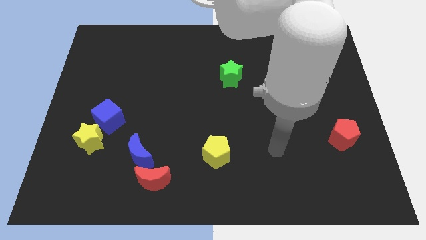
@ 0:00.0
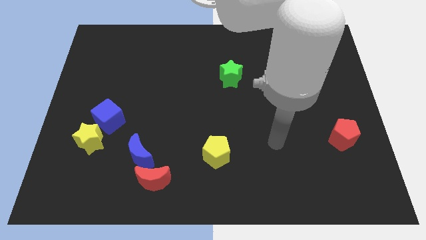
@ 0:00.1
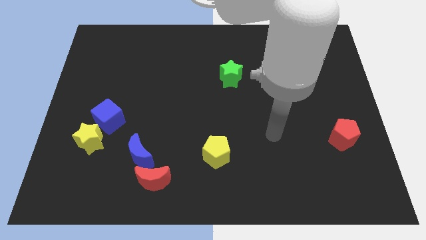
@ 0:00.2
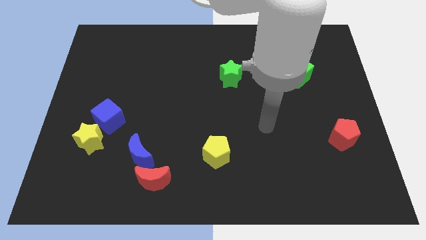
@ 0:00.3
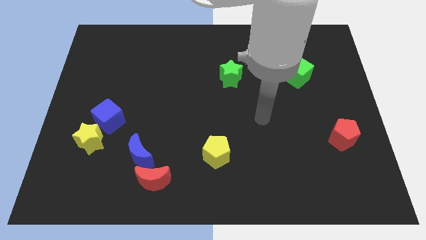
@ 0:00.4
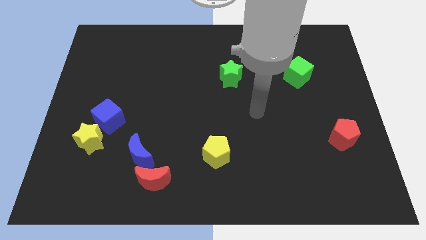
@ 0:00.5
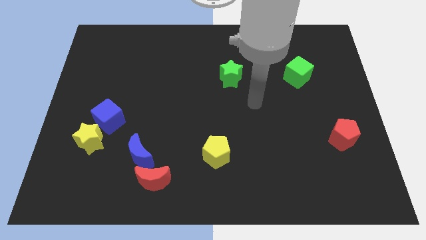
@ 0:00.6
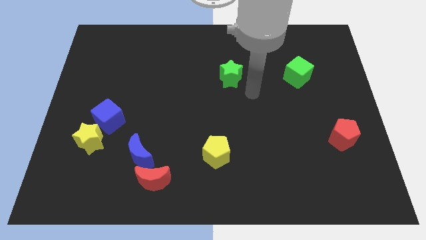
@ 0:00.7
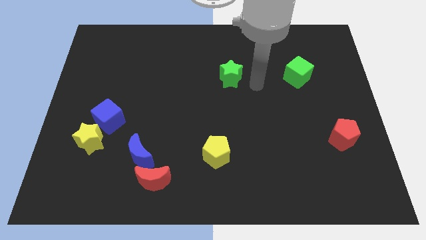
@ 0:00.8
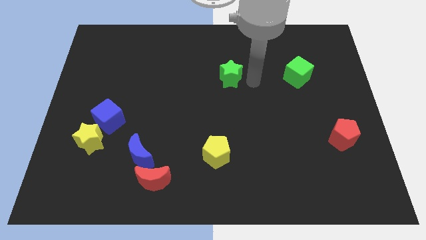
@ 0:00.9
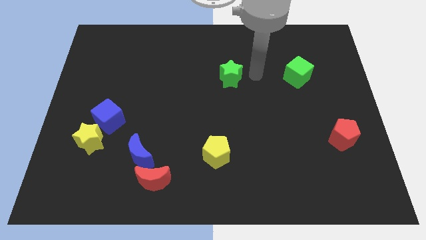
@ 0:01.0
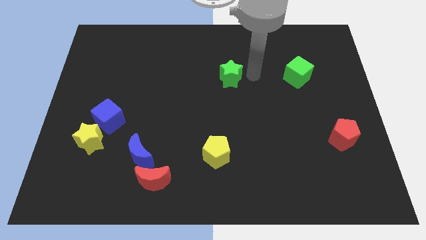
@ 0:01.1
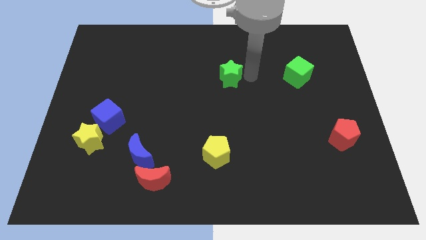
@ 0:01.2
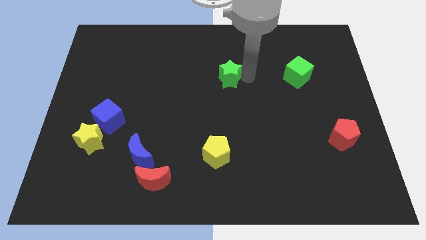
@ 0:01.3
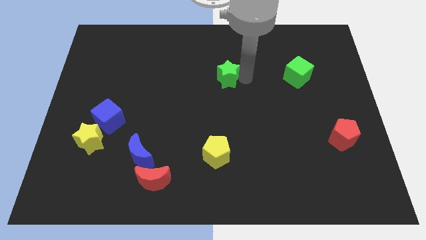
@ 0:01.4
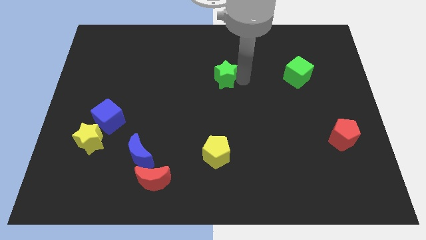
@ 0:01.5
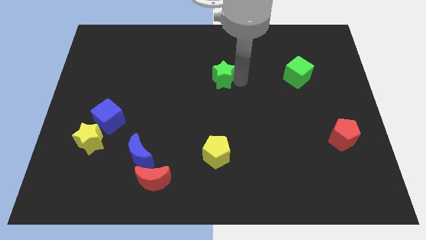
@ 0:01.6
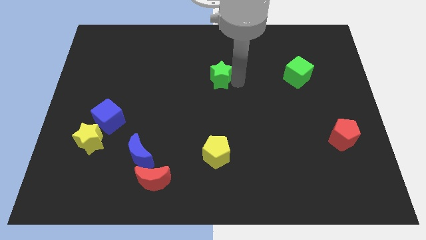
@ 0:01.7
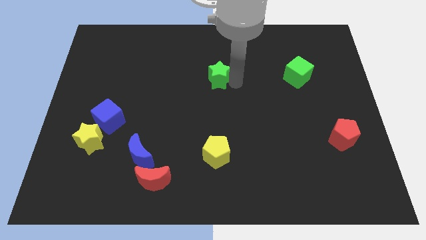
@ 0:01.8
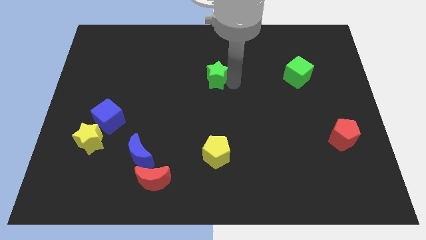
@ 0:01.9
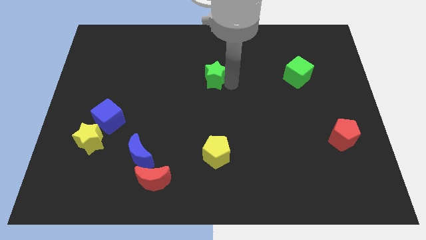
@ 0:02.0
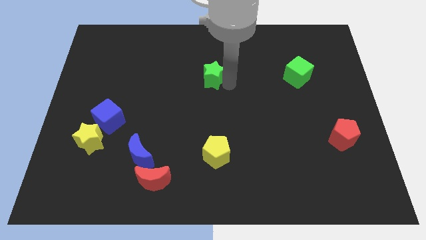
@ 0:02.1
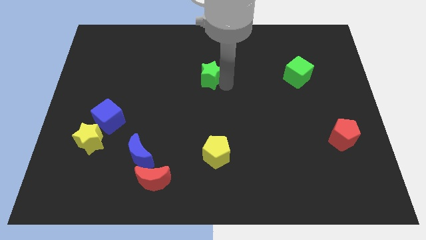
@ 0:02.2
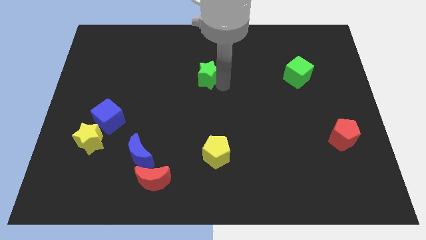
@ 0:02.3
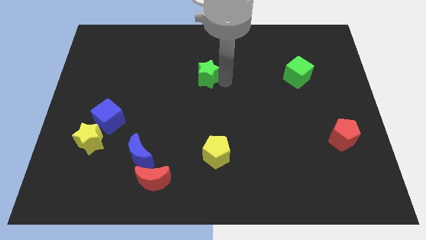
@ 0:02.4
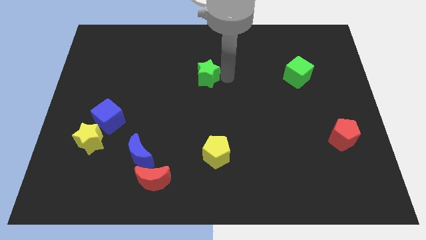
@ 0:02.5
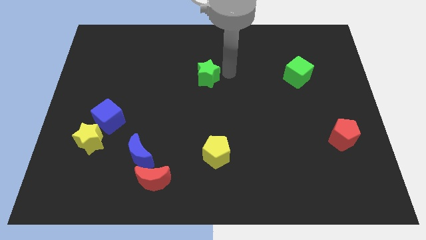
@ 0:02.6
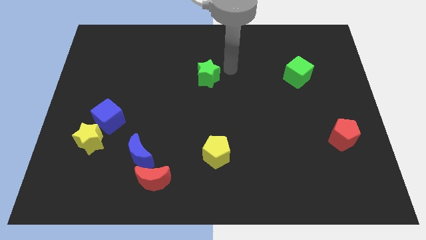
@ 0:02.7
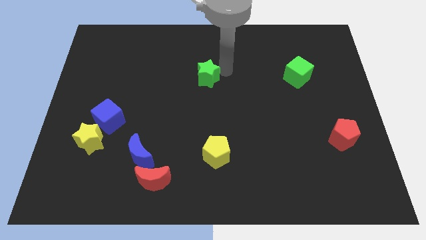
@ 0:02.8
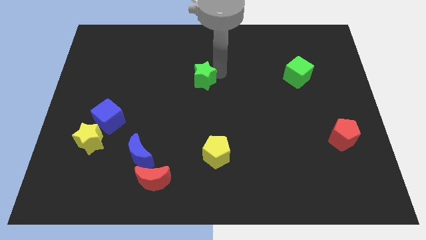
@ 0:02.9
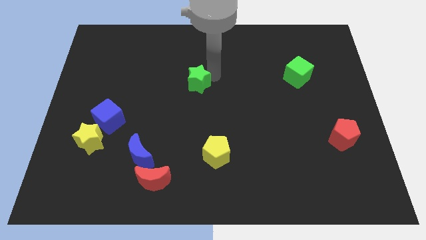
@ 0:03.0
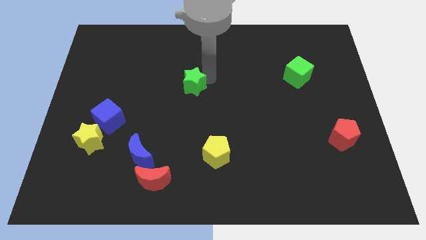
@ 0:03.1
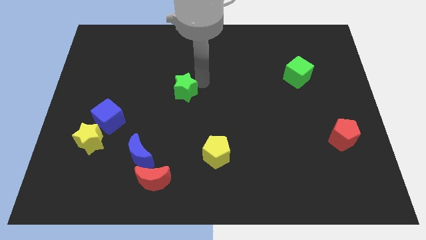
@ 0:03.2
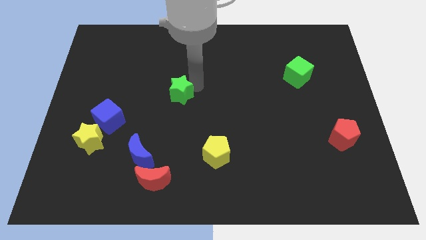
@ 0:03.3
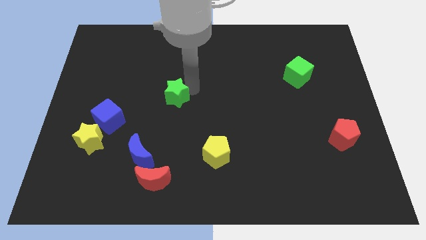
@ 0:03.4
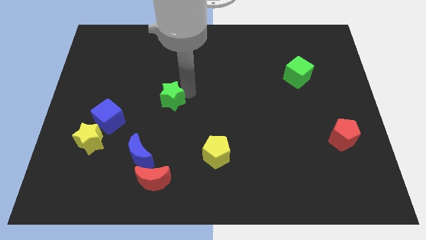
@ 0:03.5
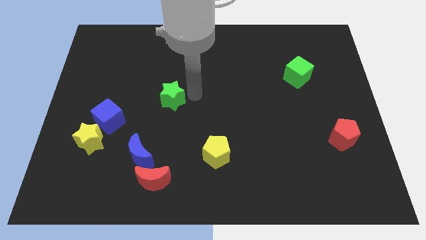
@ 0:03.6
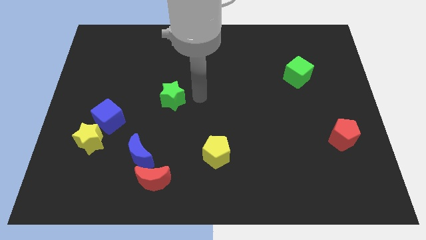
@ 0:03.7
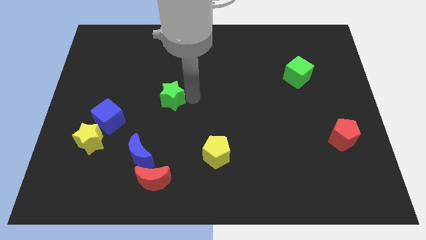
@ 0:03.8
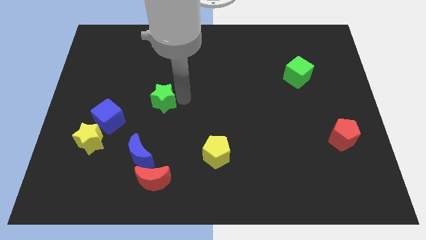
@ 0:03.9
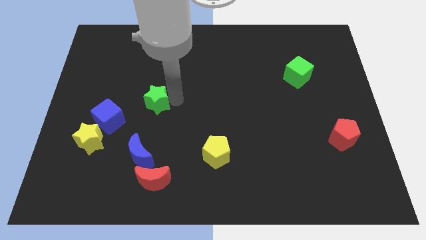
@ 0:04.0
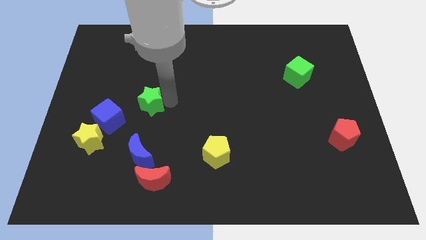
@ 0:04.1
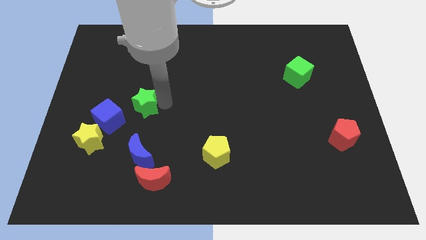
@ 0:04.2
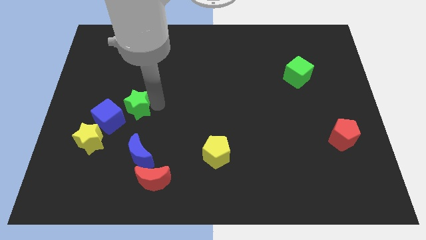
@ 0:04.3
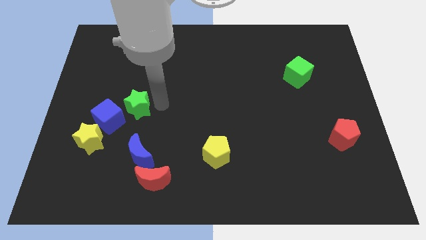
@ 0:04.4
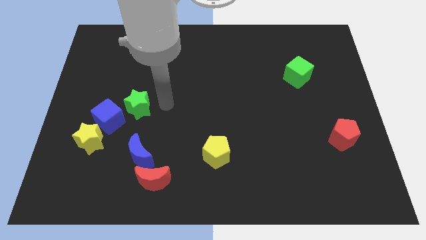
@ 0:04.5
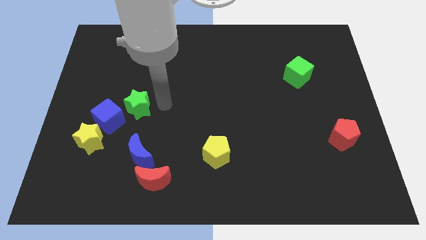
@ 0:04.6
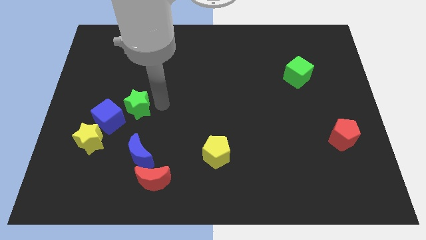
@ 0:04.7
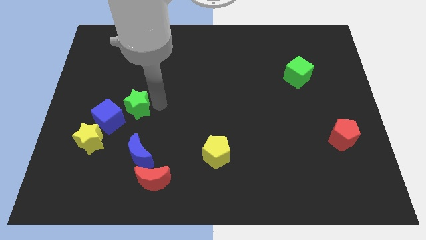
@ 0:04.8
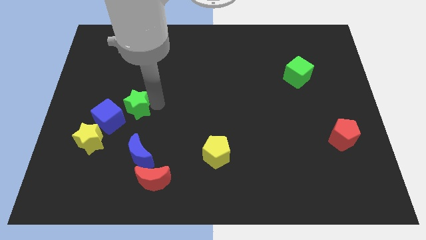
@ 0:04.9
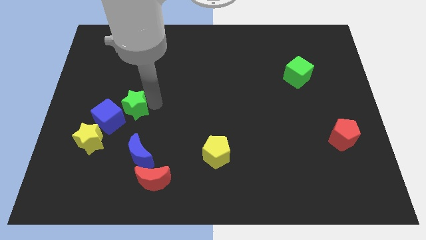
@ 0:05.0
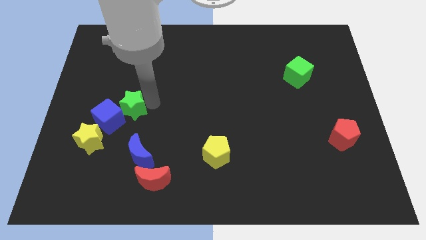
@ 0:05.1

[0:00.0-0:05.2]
move the green star to the blue cube

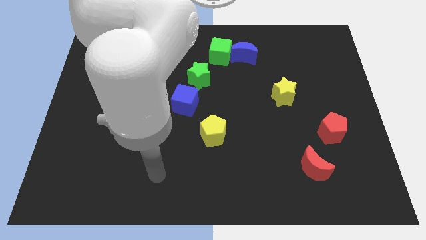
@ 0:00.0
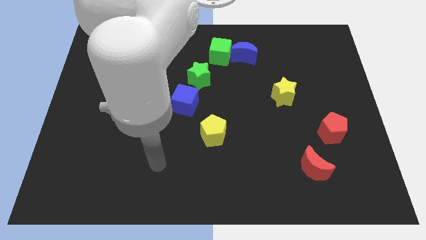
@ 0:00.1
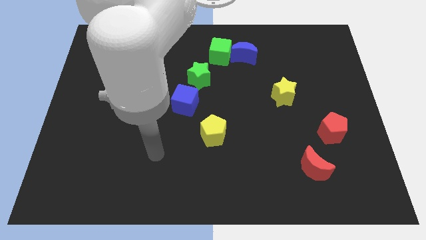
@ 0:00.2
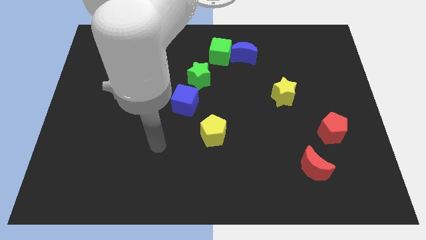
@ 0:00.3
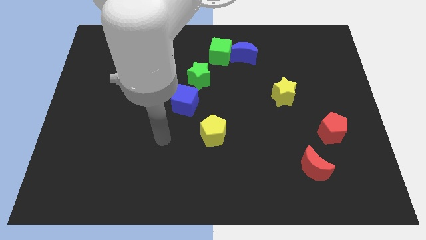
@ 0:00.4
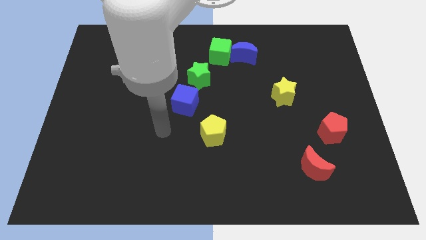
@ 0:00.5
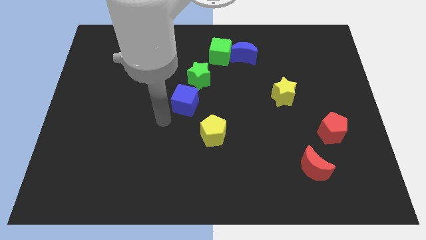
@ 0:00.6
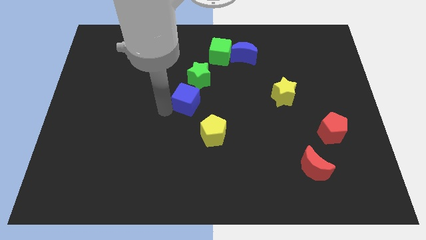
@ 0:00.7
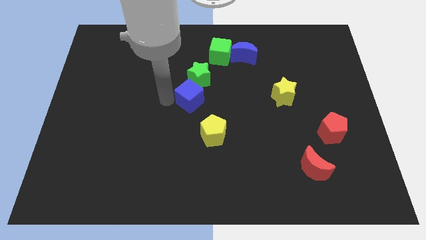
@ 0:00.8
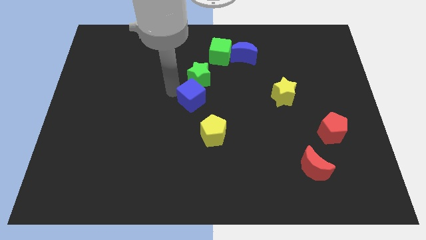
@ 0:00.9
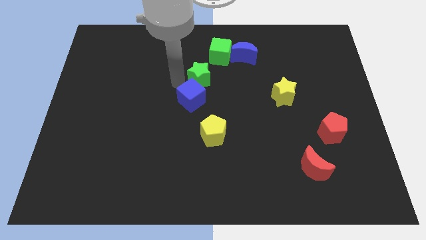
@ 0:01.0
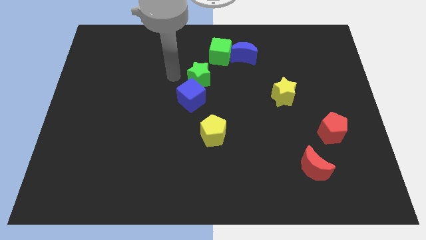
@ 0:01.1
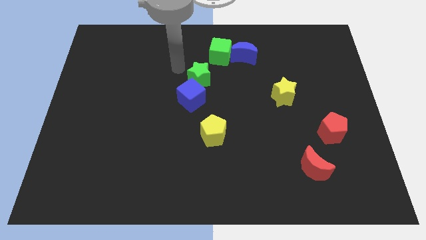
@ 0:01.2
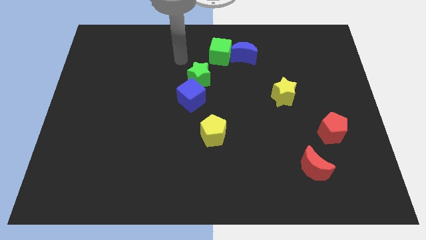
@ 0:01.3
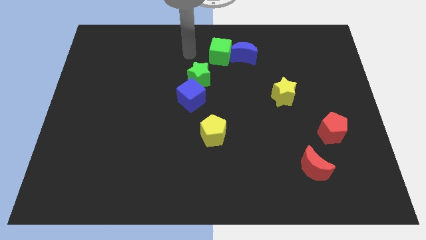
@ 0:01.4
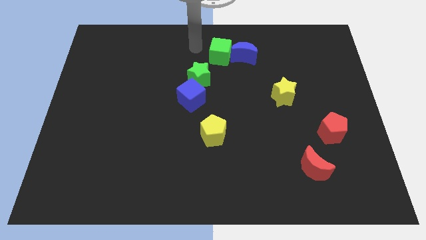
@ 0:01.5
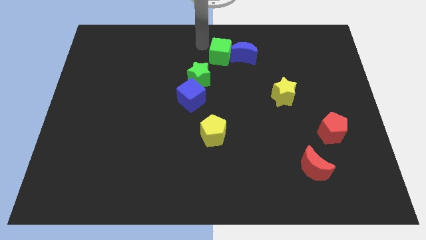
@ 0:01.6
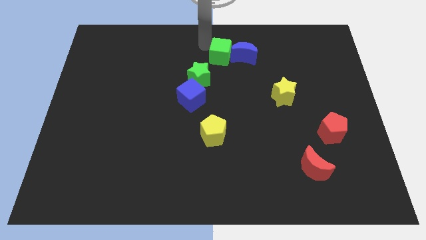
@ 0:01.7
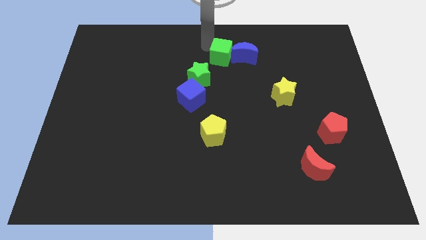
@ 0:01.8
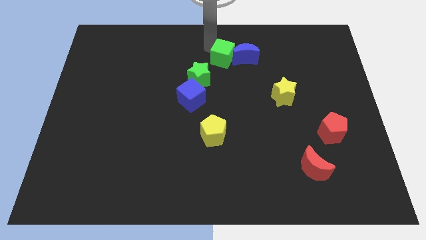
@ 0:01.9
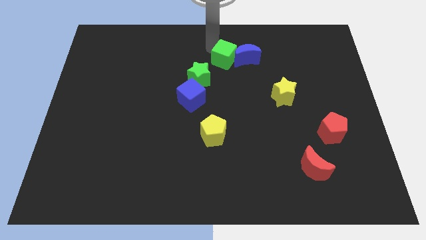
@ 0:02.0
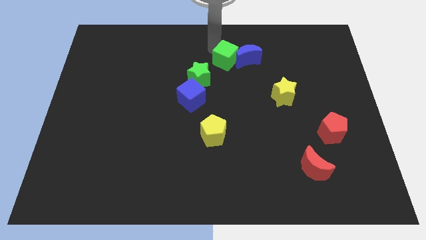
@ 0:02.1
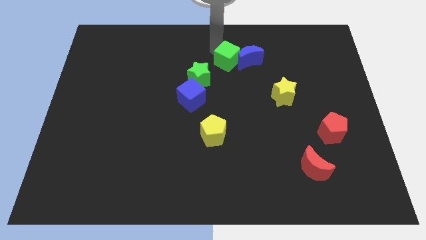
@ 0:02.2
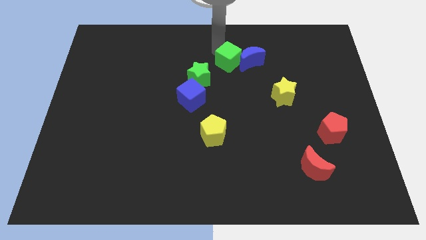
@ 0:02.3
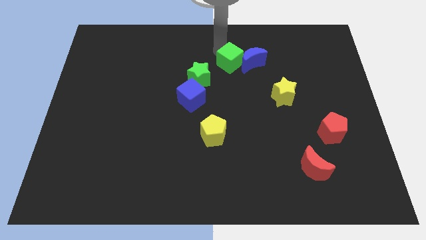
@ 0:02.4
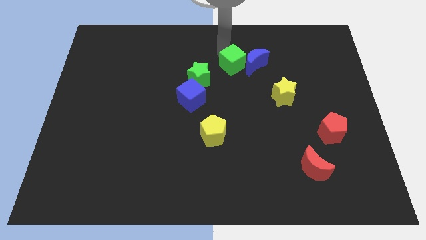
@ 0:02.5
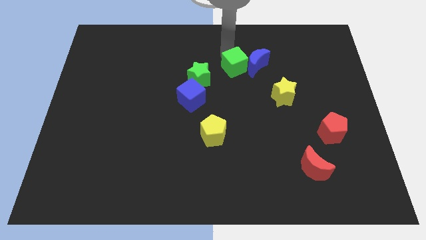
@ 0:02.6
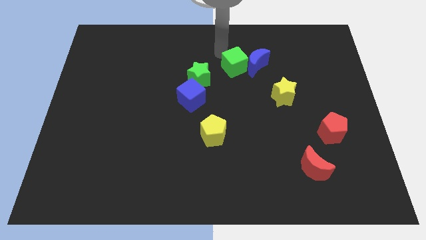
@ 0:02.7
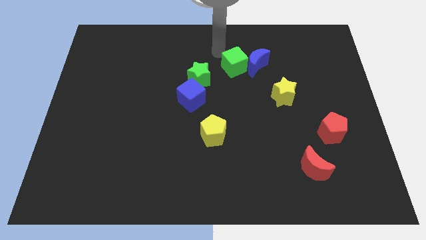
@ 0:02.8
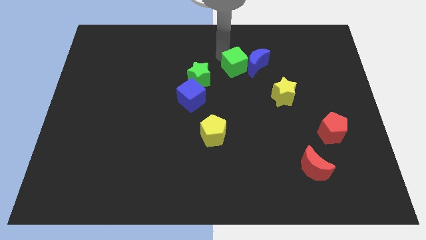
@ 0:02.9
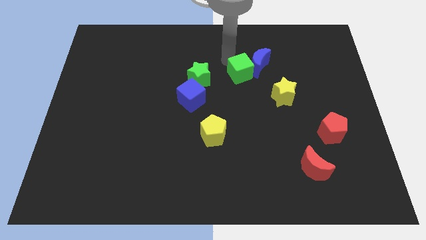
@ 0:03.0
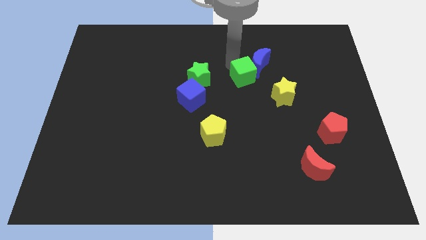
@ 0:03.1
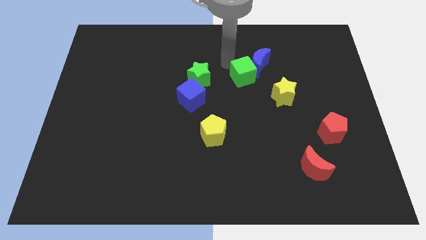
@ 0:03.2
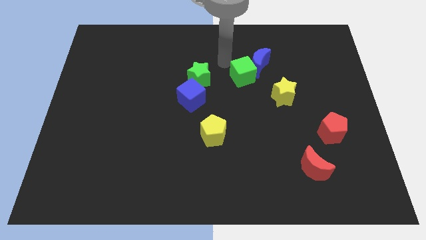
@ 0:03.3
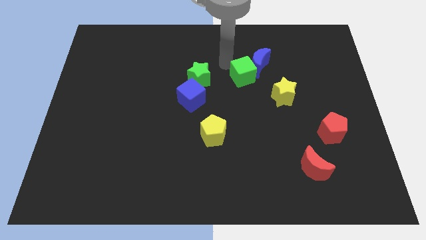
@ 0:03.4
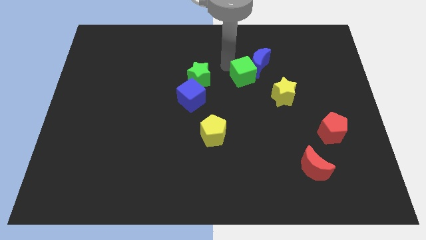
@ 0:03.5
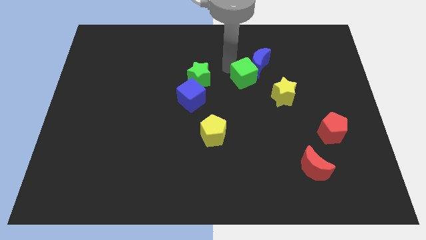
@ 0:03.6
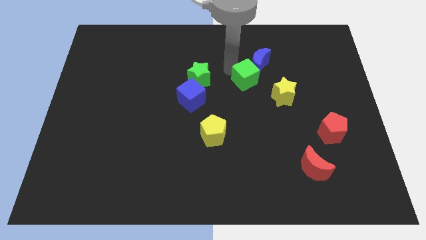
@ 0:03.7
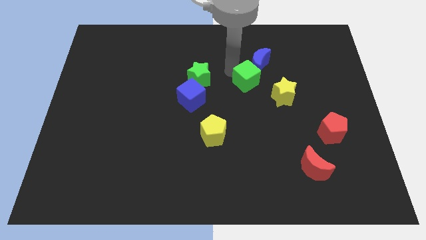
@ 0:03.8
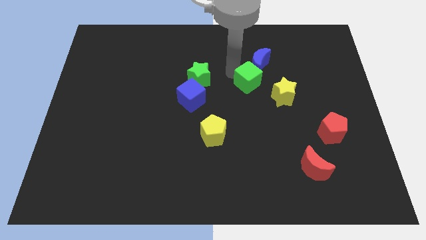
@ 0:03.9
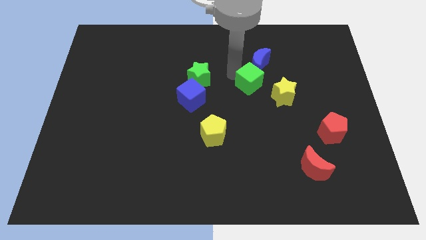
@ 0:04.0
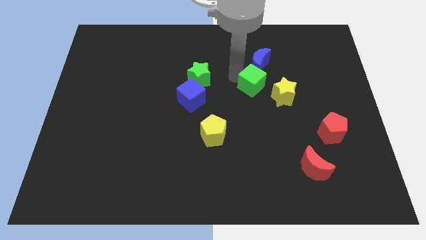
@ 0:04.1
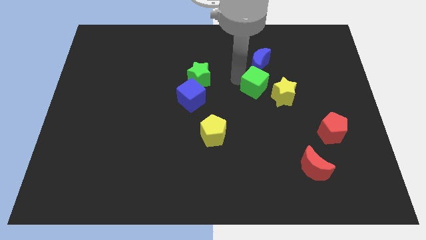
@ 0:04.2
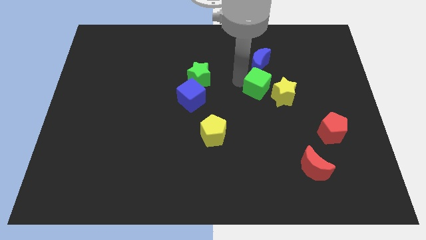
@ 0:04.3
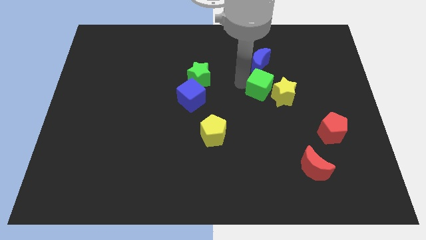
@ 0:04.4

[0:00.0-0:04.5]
push the green cube close to the yellow star
